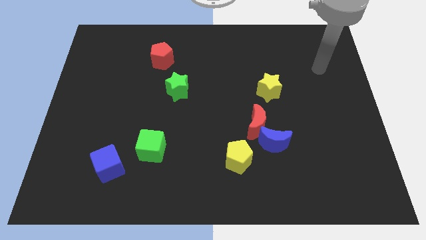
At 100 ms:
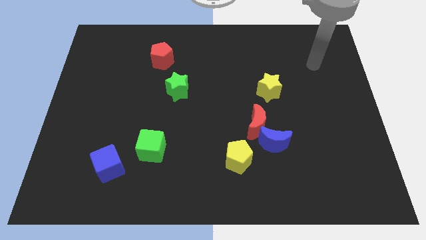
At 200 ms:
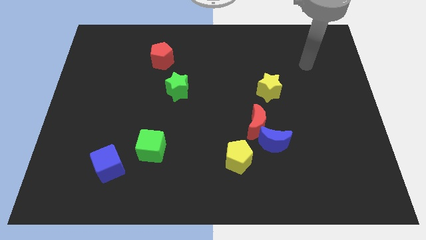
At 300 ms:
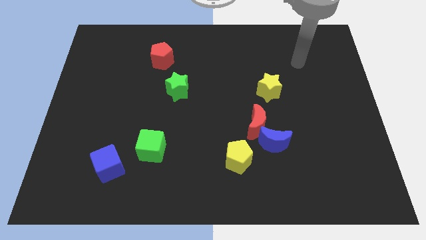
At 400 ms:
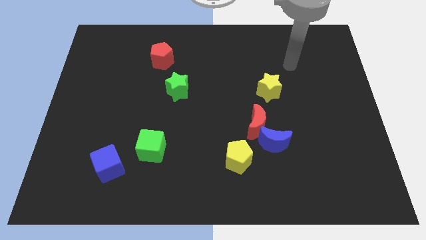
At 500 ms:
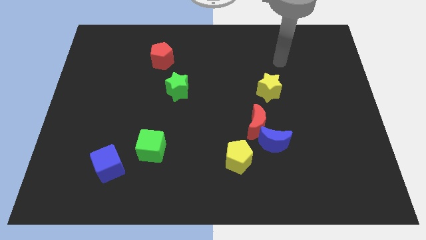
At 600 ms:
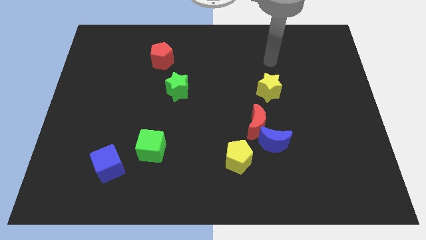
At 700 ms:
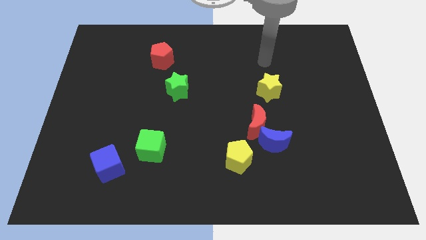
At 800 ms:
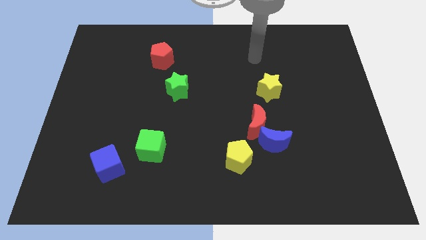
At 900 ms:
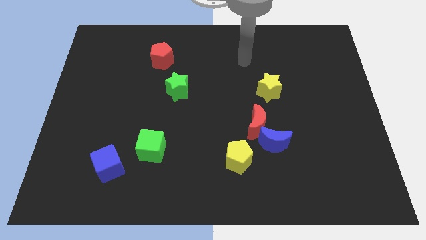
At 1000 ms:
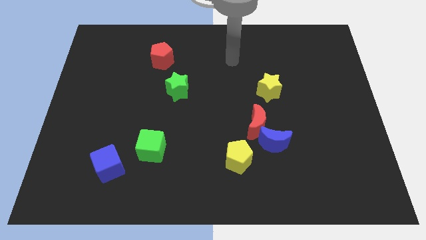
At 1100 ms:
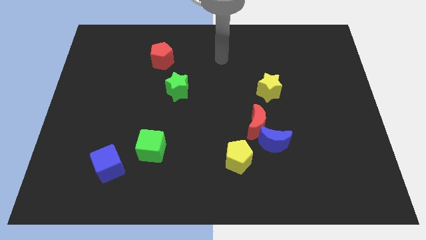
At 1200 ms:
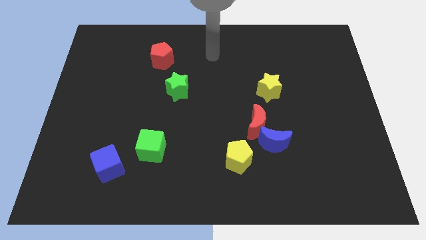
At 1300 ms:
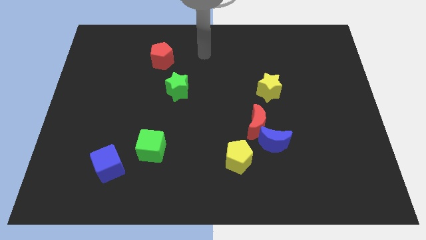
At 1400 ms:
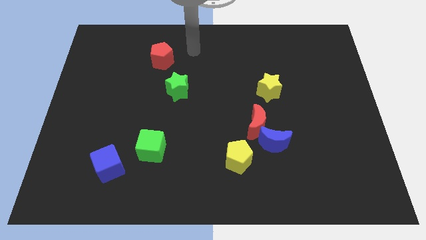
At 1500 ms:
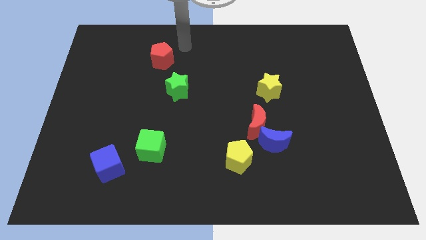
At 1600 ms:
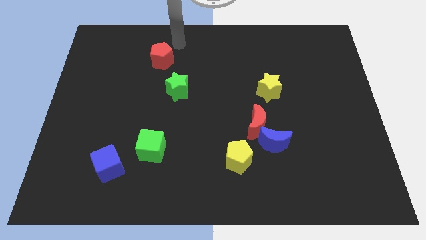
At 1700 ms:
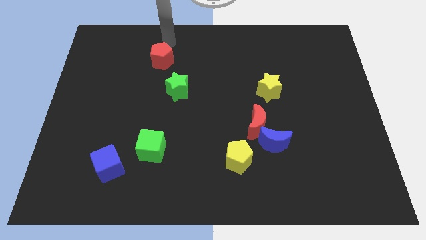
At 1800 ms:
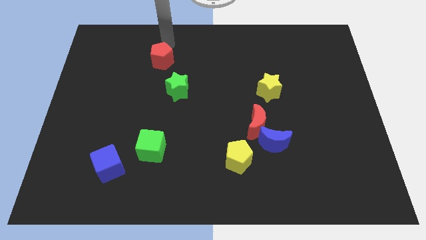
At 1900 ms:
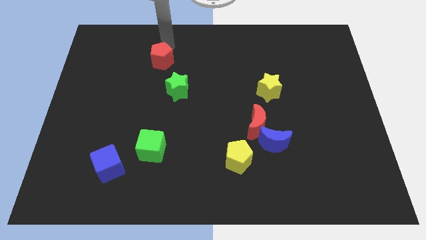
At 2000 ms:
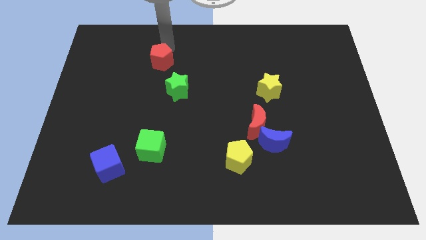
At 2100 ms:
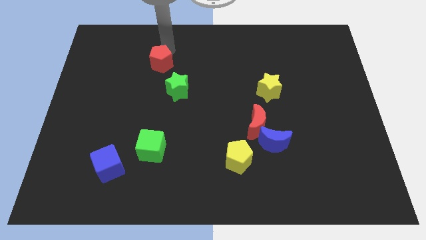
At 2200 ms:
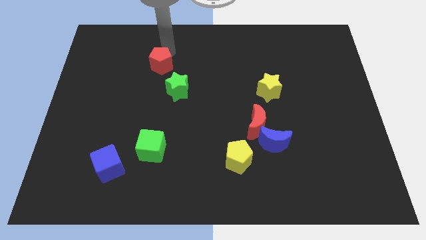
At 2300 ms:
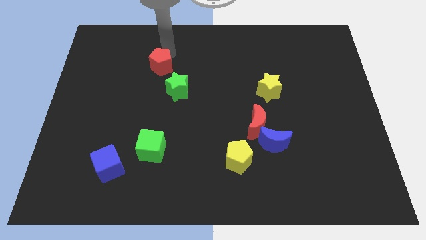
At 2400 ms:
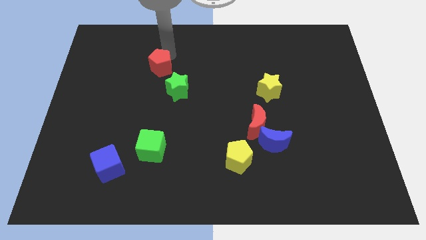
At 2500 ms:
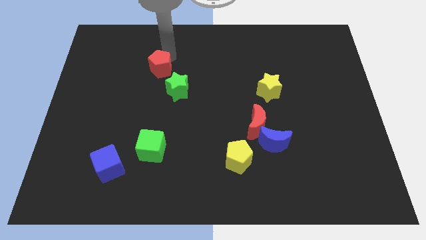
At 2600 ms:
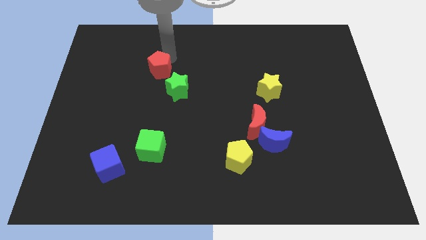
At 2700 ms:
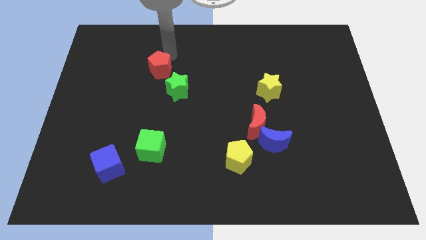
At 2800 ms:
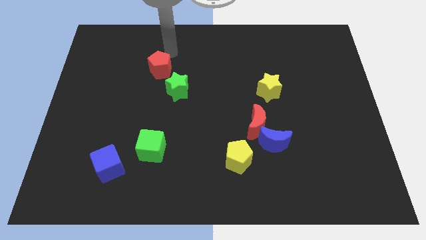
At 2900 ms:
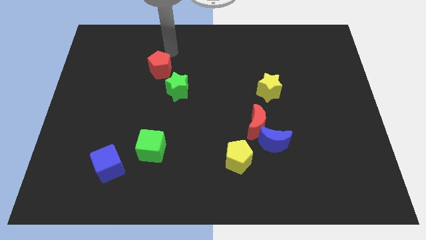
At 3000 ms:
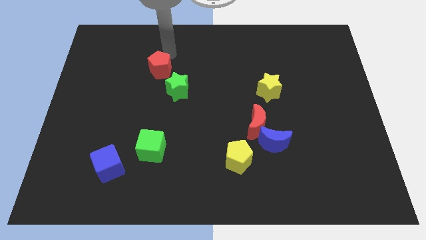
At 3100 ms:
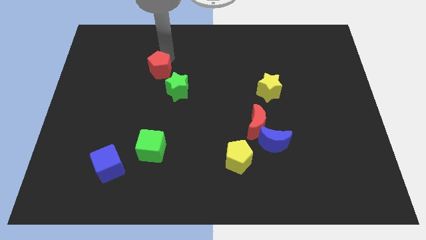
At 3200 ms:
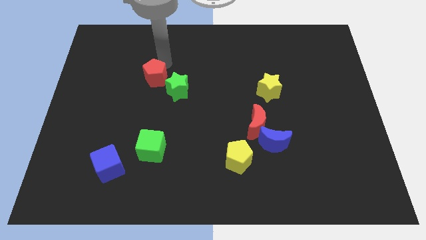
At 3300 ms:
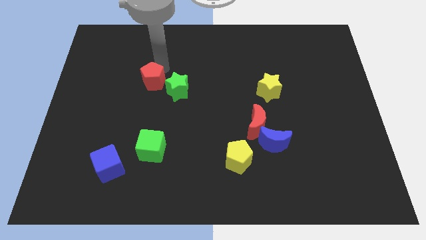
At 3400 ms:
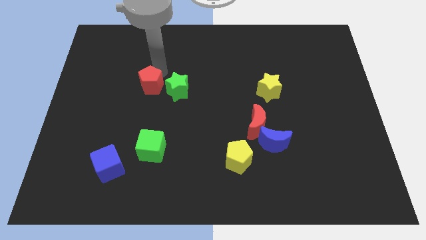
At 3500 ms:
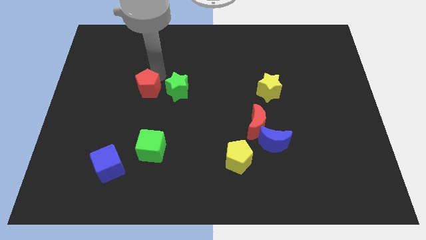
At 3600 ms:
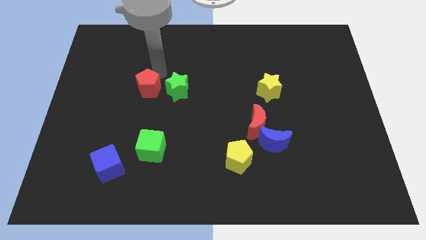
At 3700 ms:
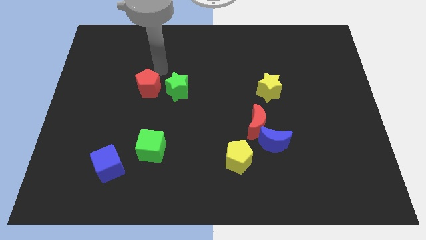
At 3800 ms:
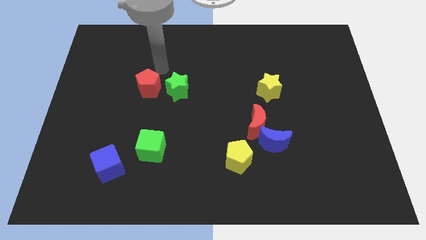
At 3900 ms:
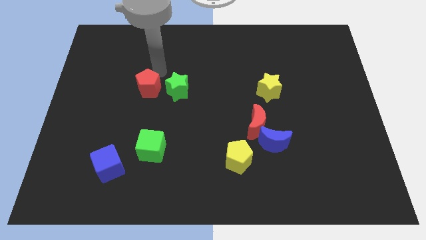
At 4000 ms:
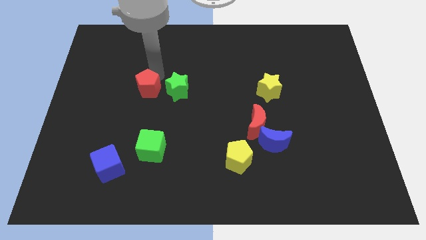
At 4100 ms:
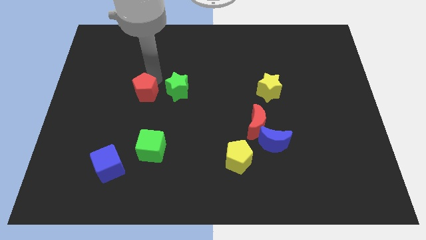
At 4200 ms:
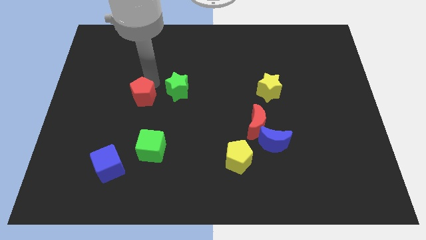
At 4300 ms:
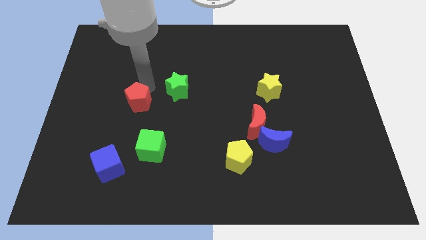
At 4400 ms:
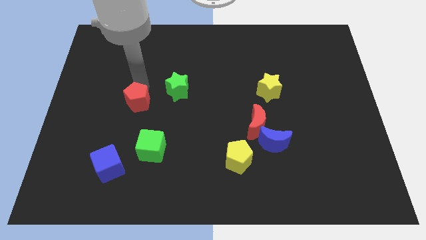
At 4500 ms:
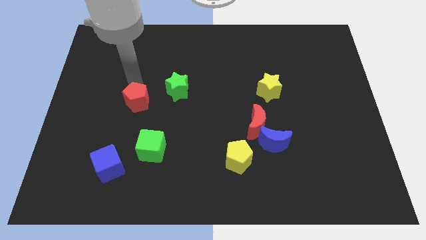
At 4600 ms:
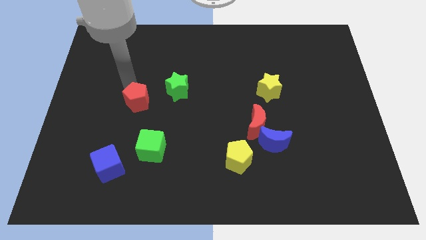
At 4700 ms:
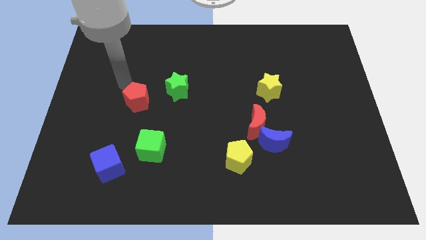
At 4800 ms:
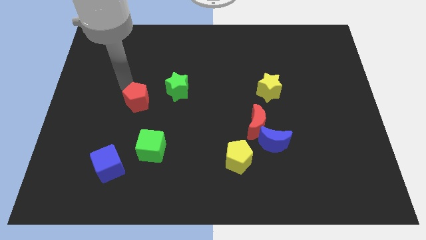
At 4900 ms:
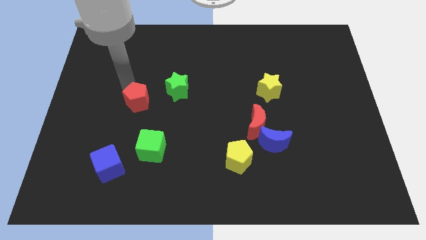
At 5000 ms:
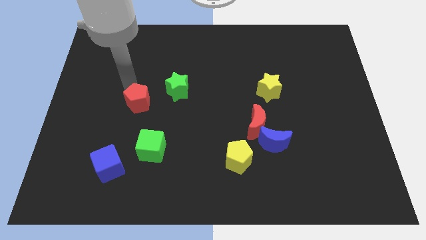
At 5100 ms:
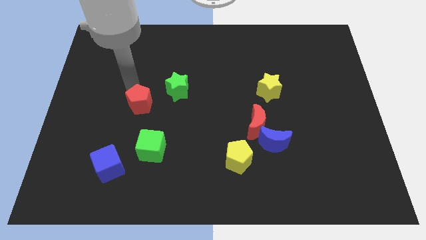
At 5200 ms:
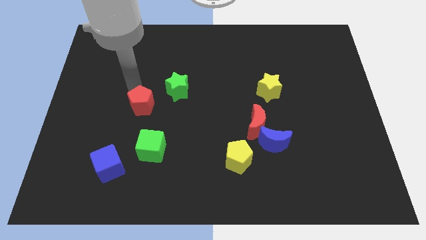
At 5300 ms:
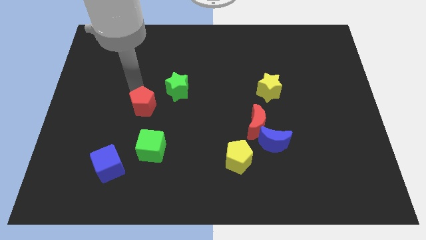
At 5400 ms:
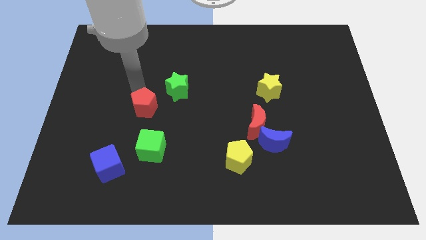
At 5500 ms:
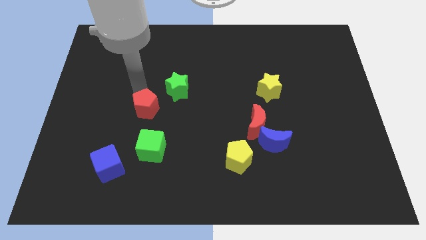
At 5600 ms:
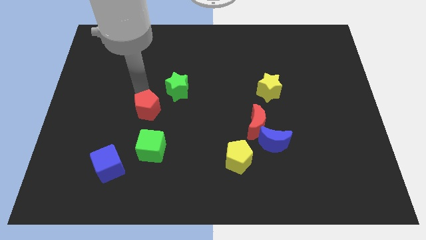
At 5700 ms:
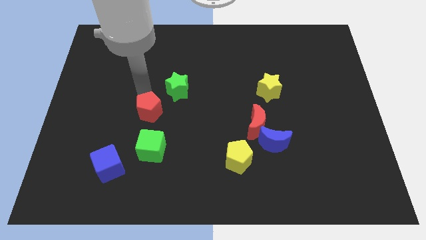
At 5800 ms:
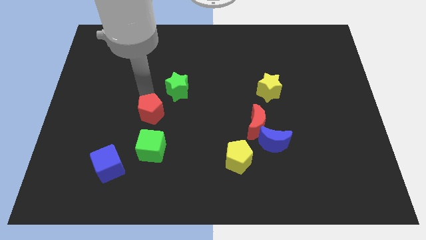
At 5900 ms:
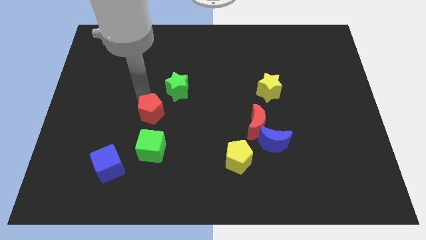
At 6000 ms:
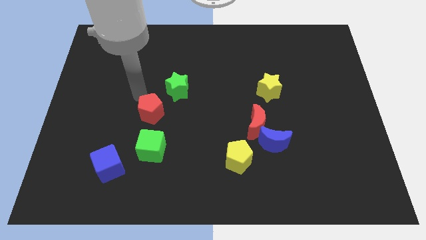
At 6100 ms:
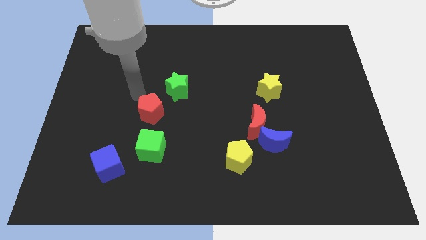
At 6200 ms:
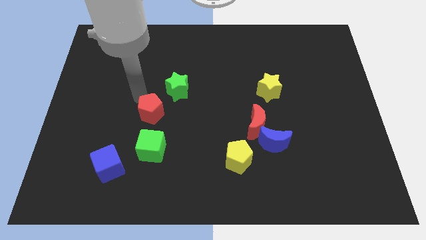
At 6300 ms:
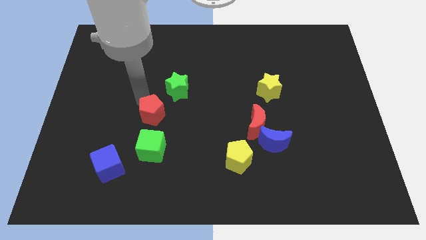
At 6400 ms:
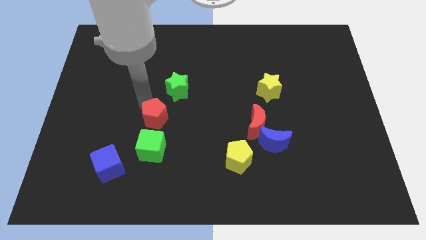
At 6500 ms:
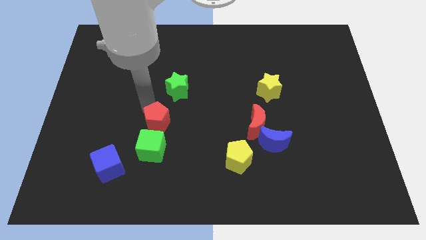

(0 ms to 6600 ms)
push the red pentagon down

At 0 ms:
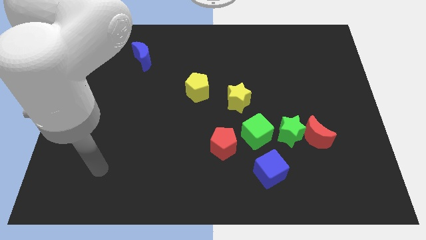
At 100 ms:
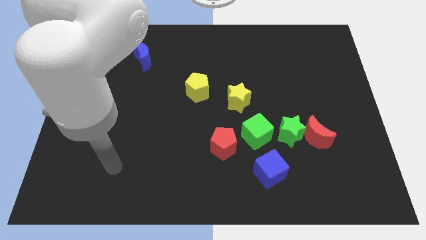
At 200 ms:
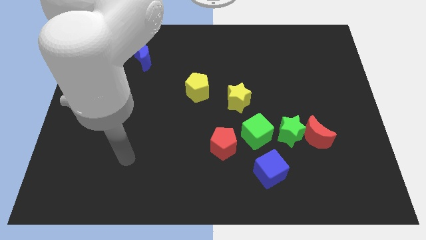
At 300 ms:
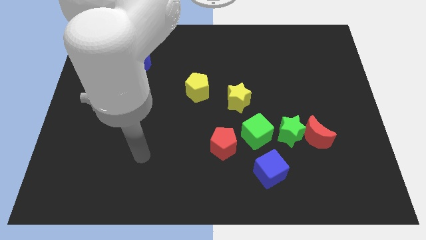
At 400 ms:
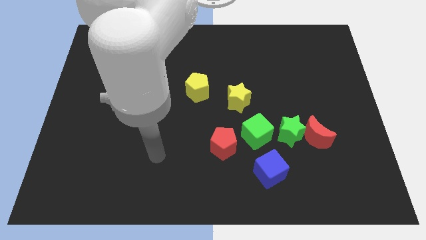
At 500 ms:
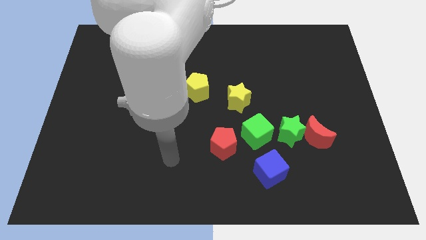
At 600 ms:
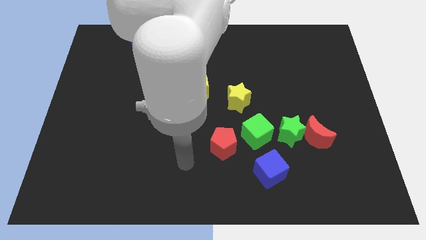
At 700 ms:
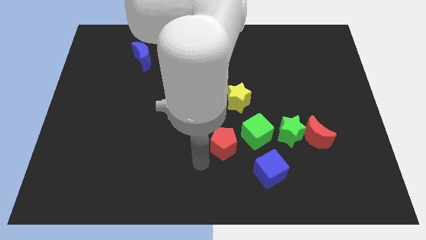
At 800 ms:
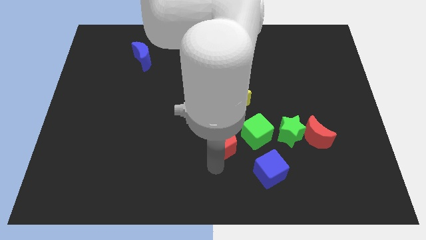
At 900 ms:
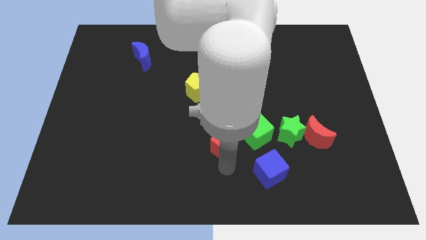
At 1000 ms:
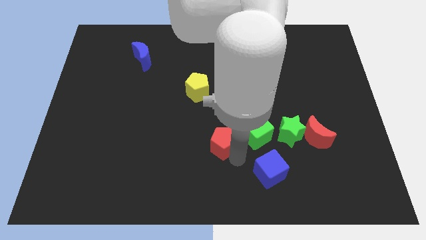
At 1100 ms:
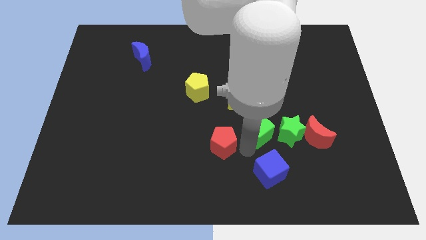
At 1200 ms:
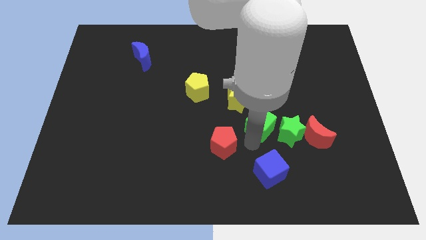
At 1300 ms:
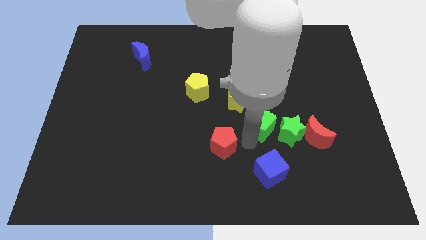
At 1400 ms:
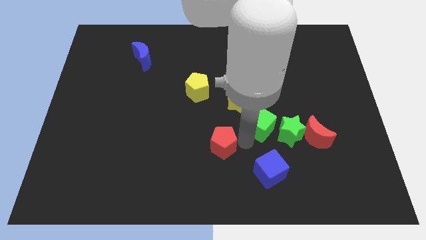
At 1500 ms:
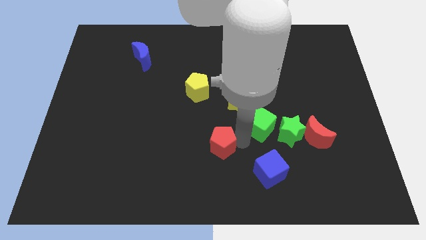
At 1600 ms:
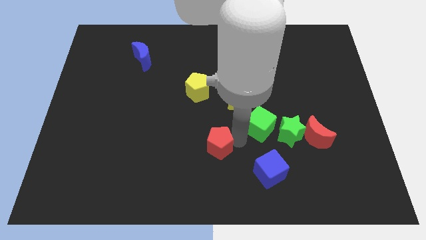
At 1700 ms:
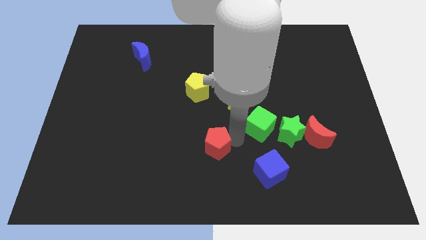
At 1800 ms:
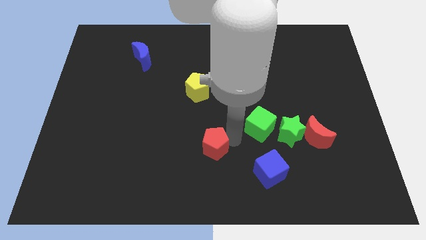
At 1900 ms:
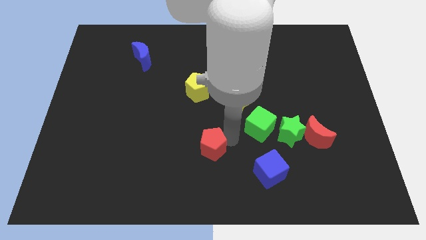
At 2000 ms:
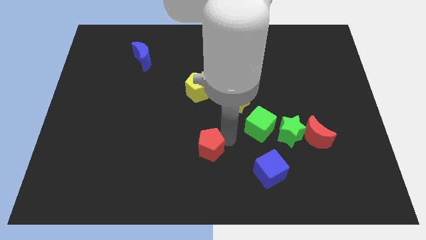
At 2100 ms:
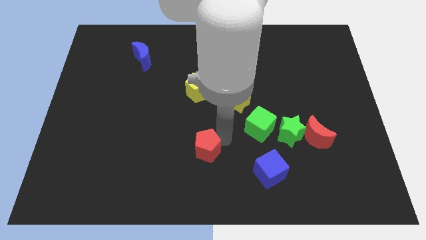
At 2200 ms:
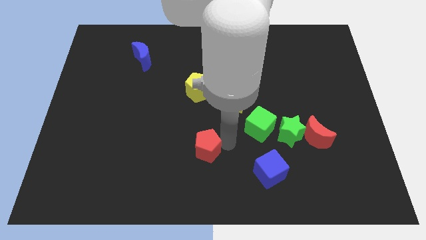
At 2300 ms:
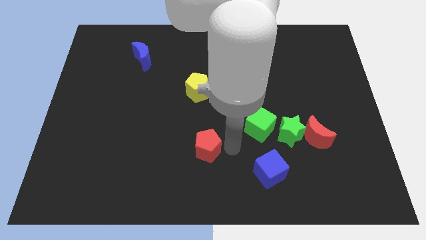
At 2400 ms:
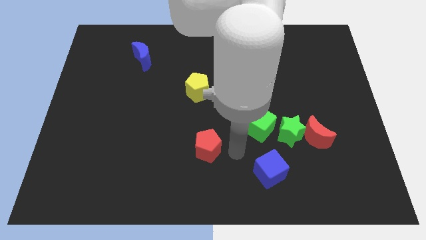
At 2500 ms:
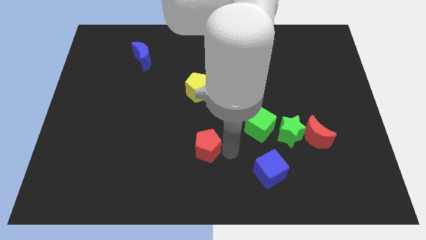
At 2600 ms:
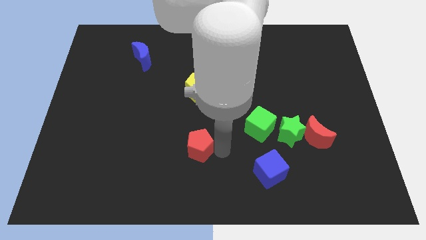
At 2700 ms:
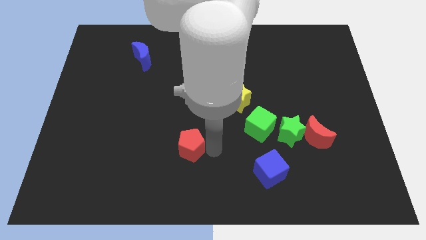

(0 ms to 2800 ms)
push the red pentagon left somewhat
